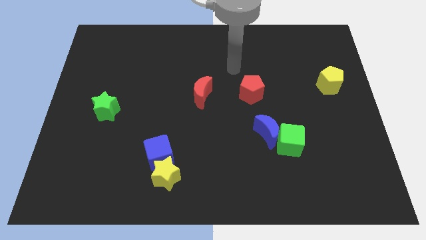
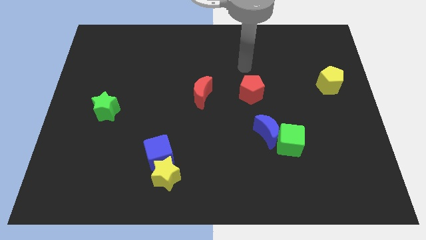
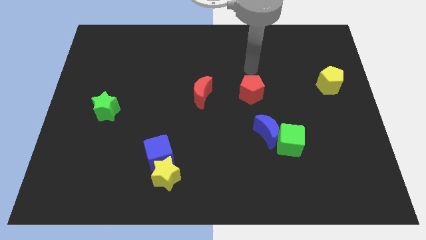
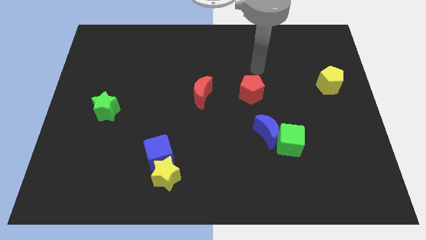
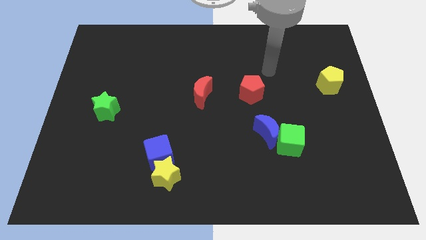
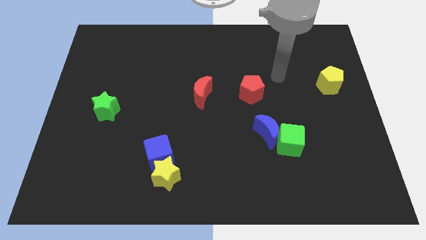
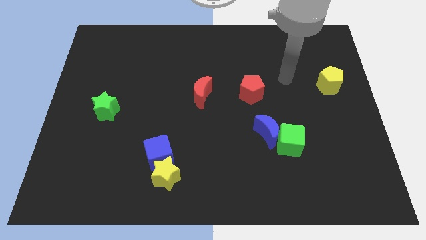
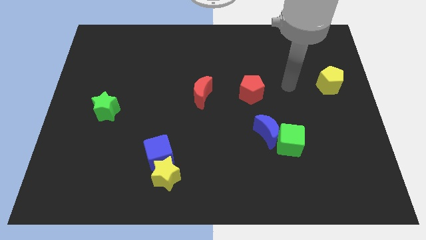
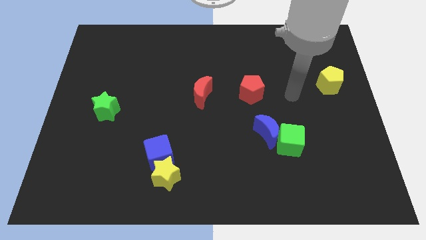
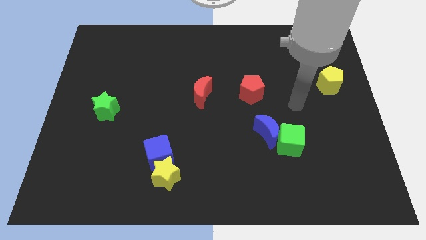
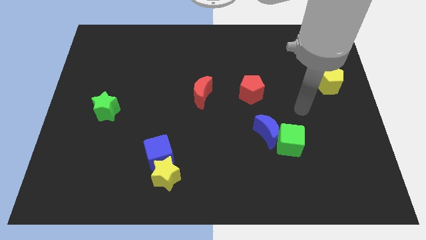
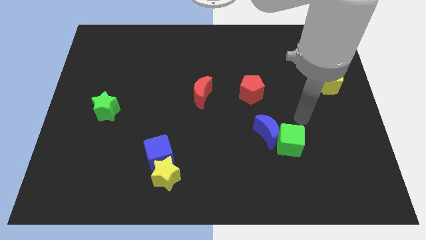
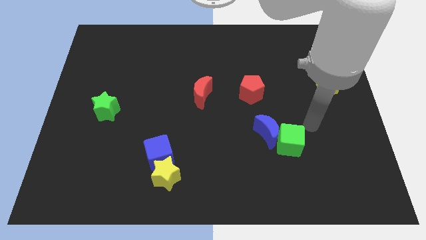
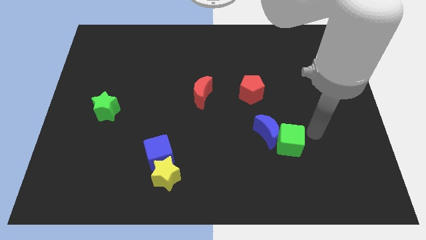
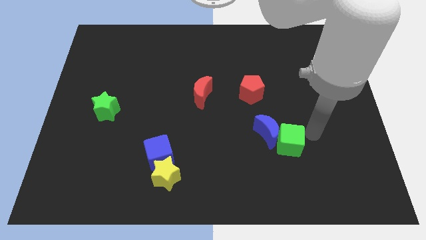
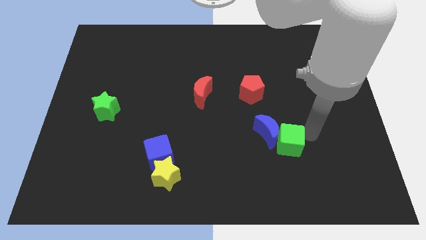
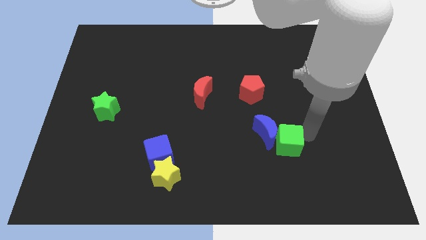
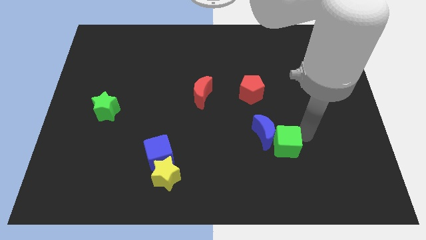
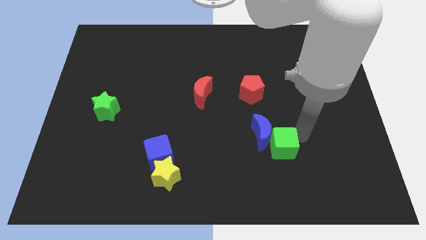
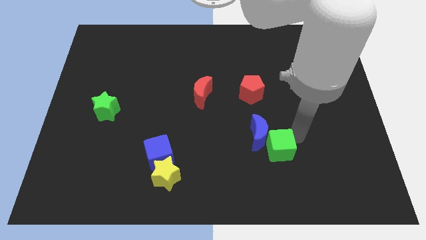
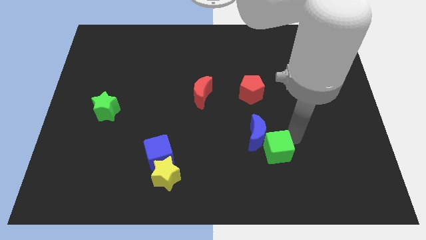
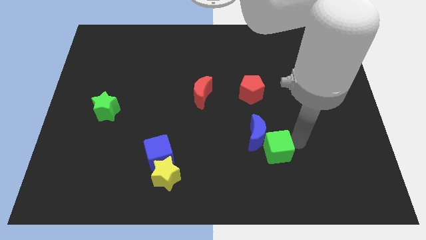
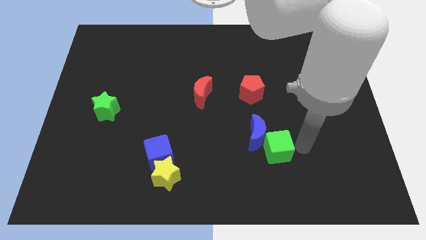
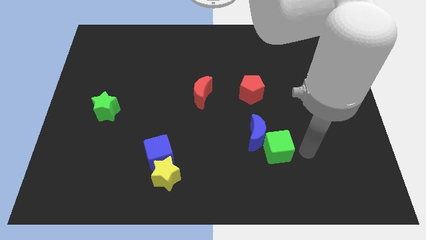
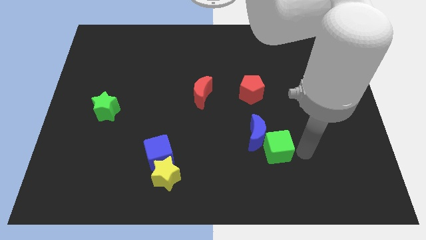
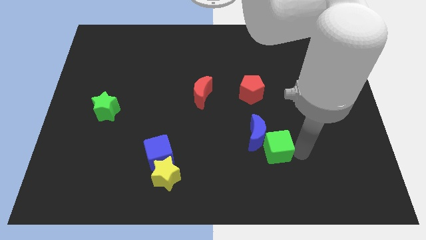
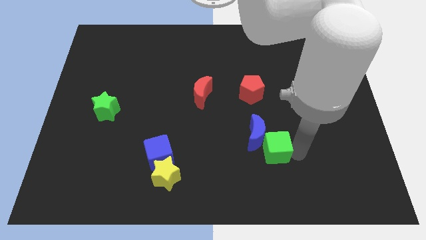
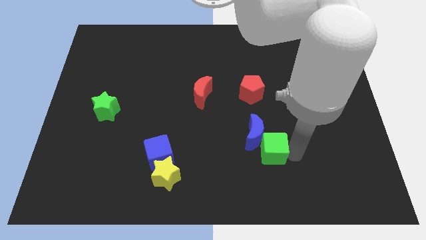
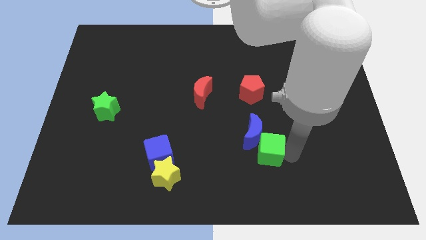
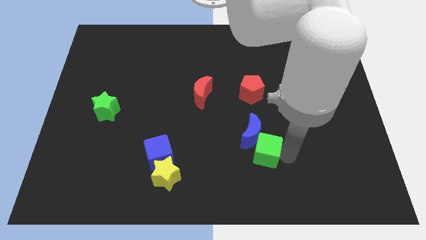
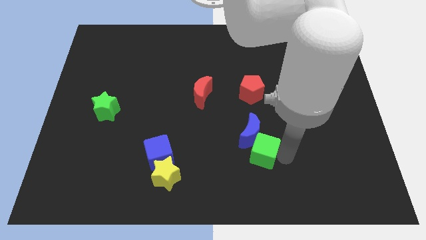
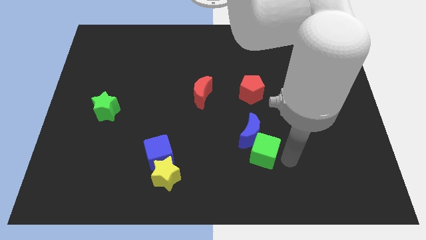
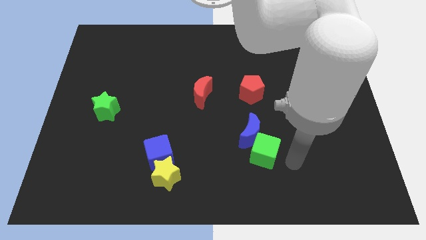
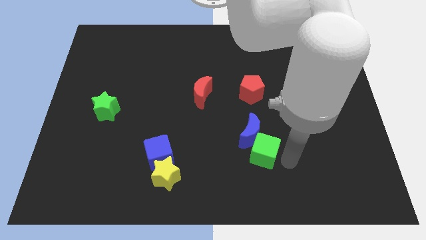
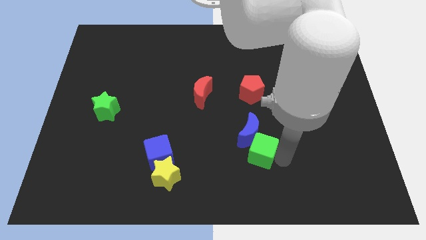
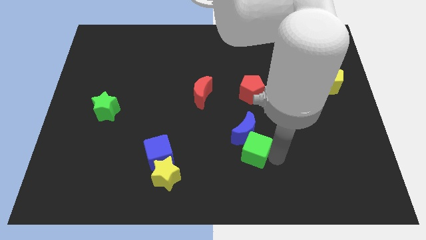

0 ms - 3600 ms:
push the green cube a little bit to the left

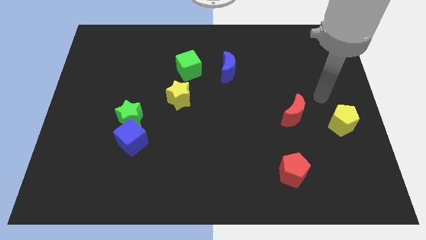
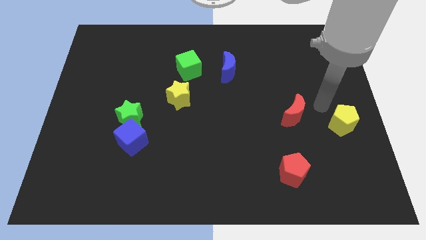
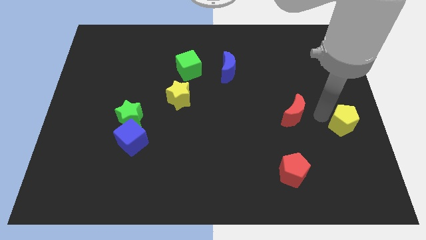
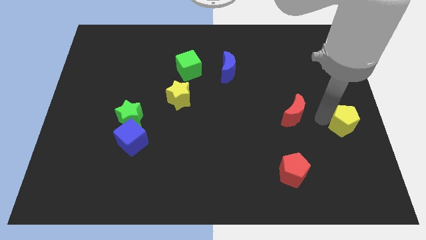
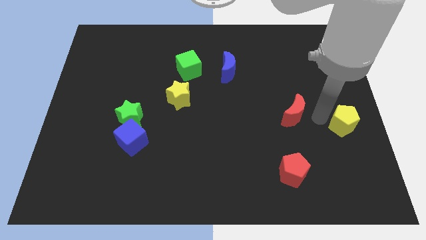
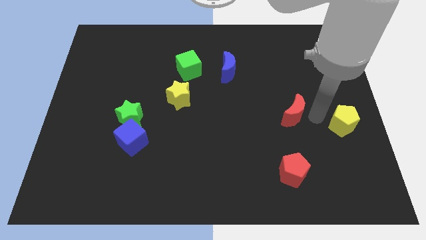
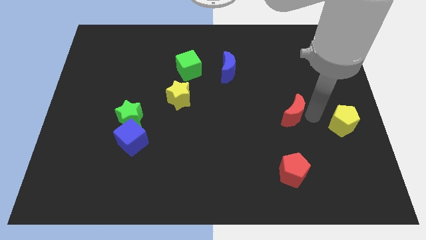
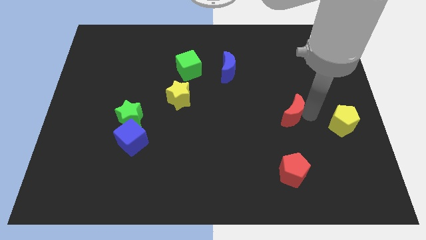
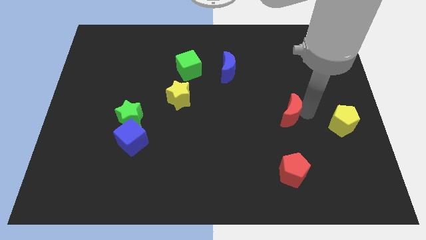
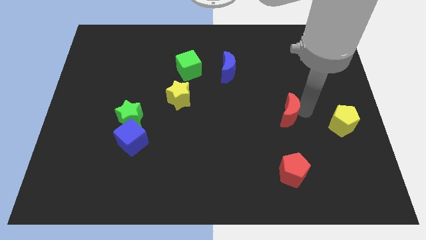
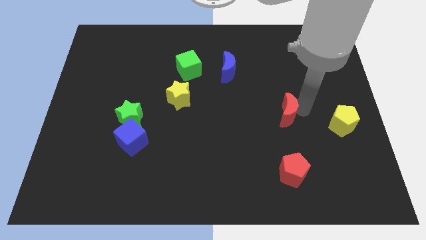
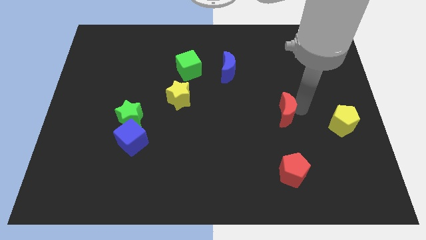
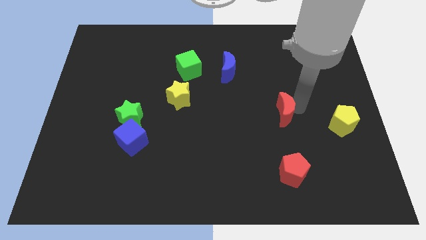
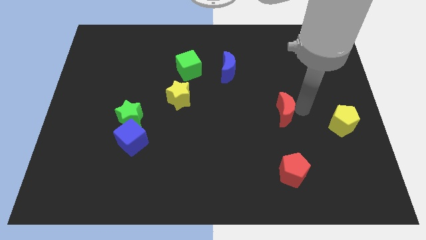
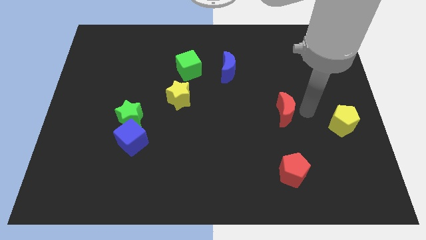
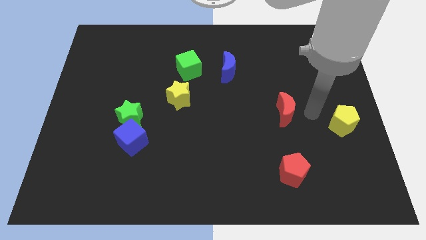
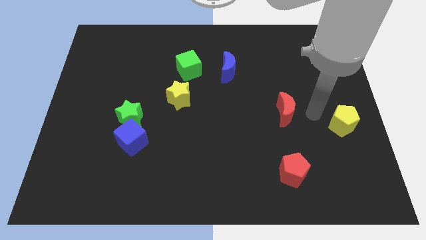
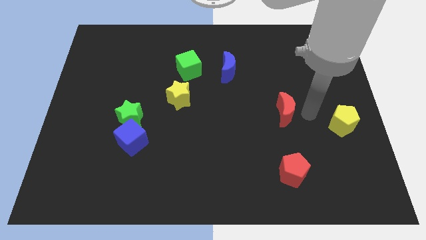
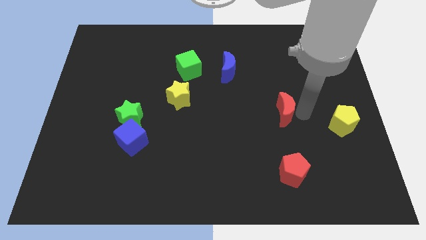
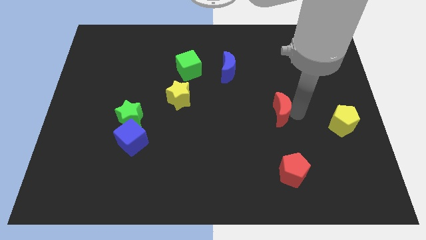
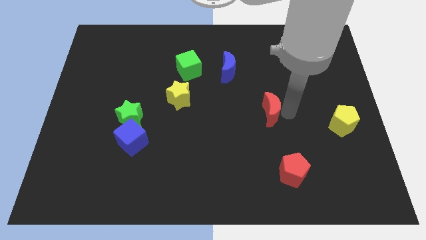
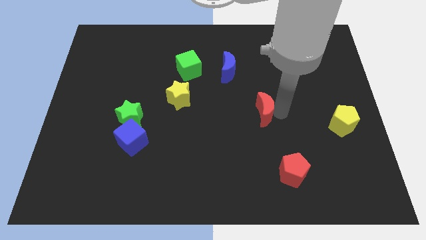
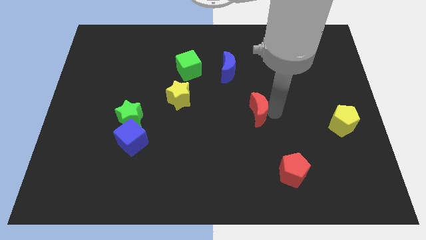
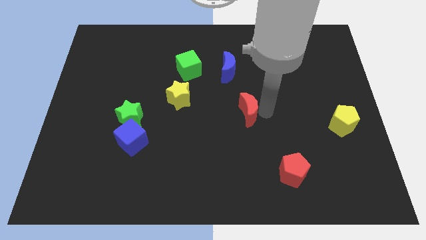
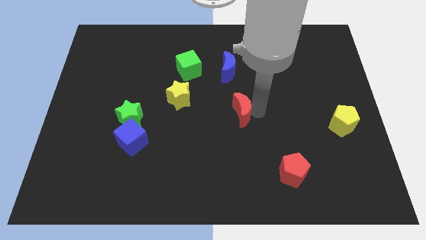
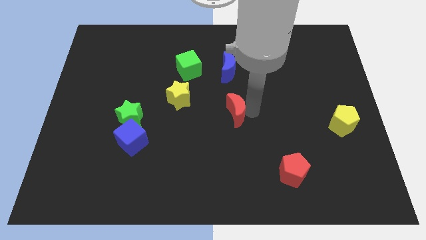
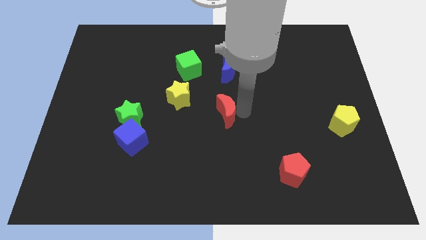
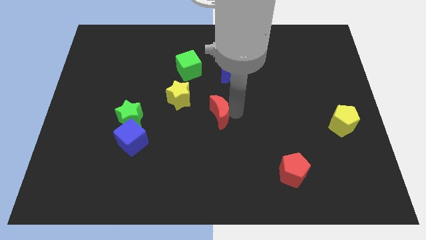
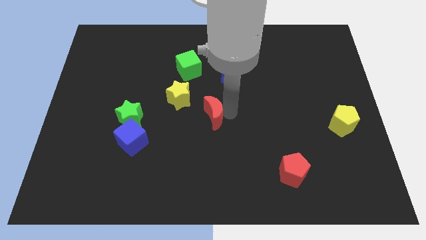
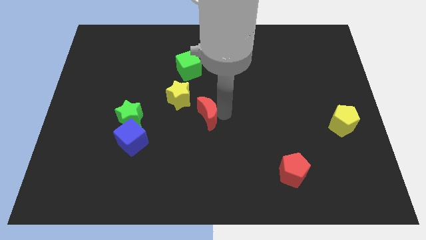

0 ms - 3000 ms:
push the red moon to the left

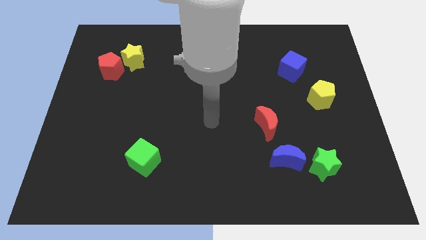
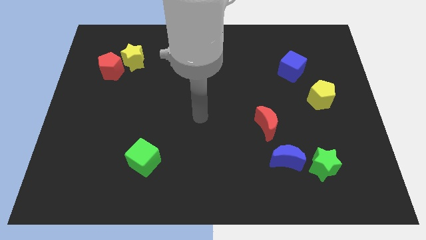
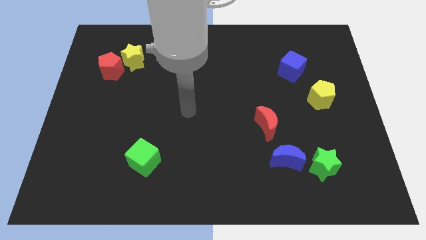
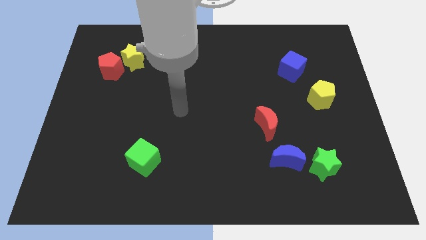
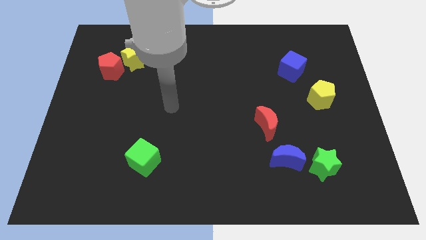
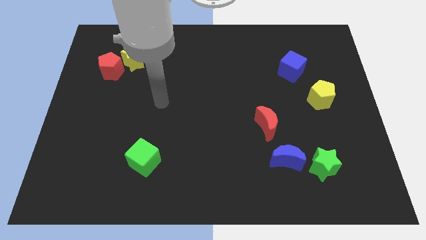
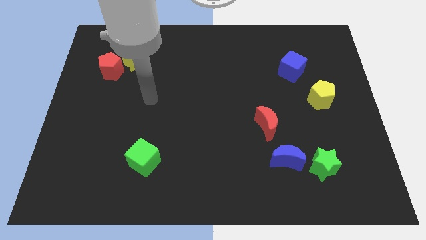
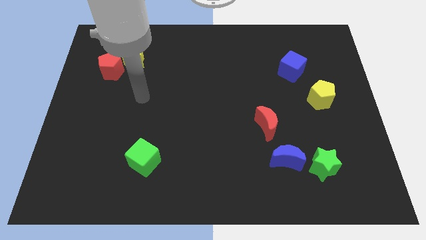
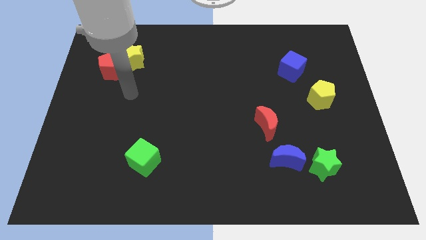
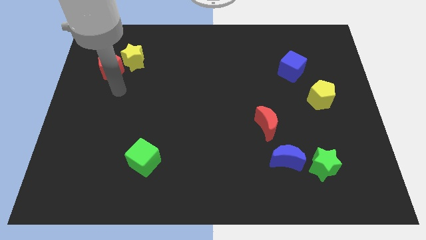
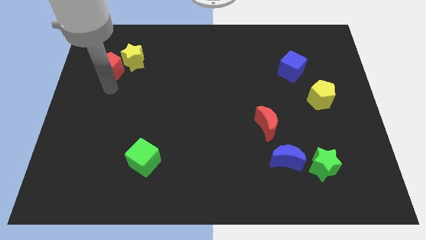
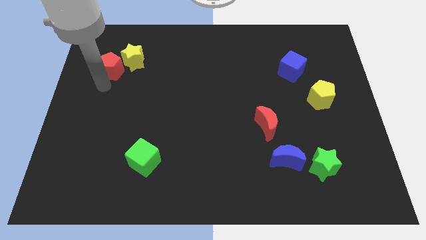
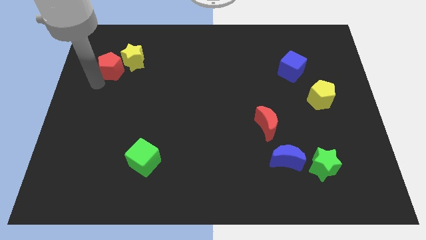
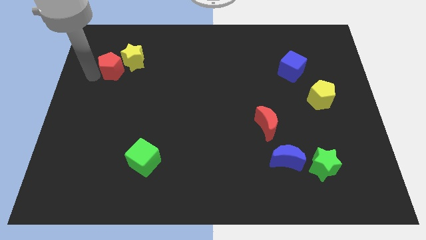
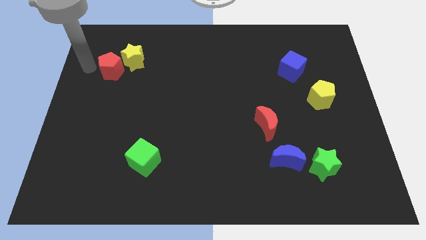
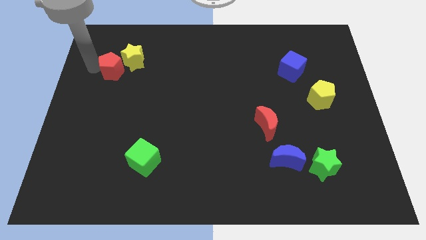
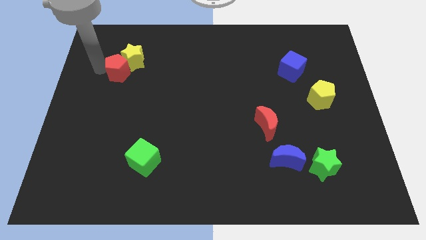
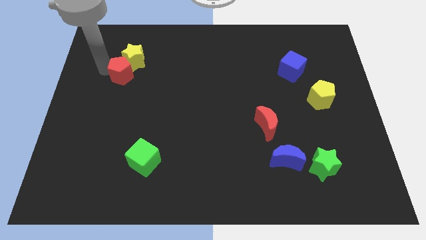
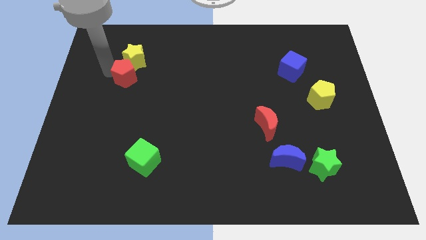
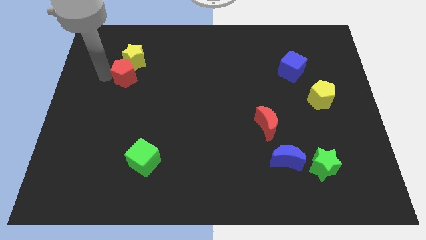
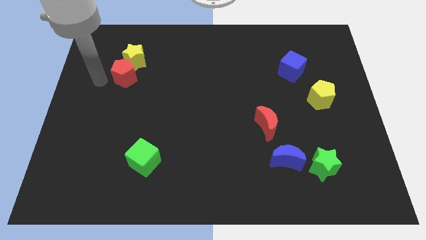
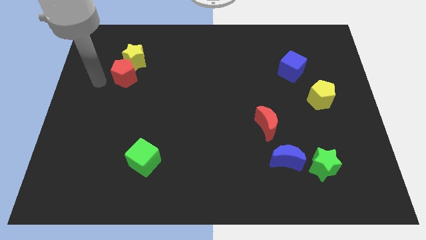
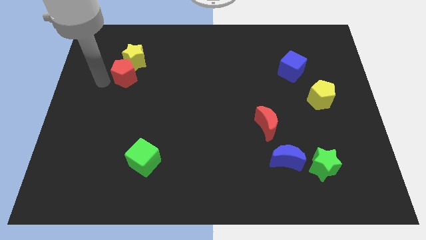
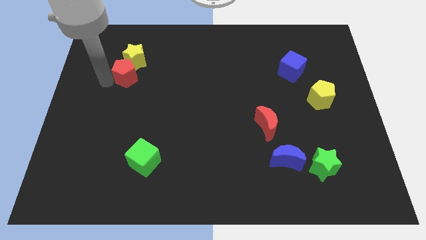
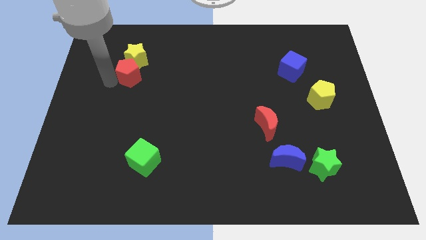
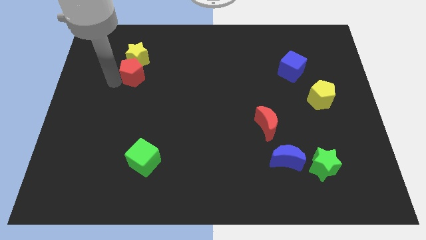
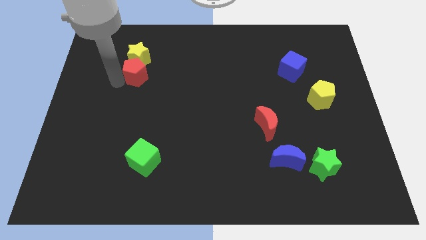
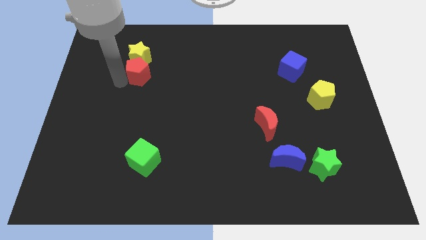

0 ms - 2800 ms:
move the red pentagon to the right a little bit
